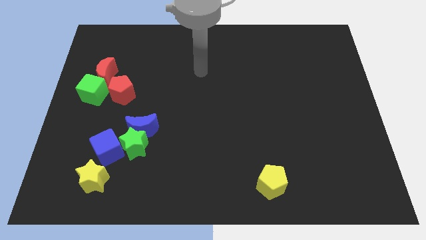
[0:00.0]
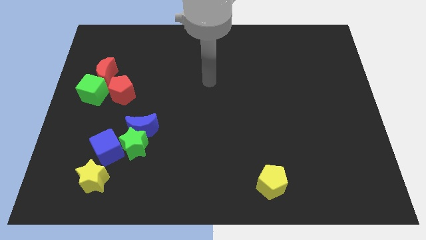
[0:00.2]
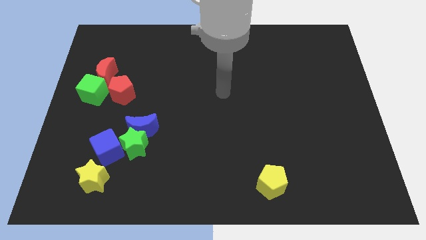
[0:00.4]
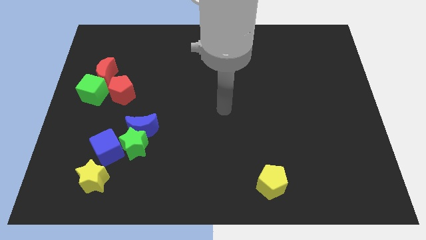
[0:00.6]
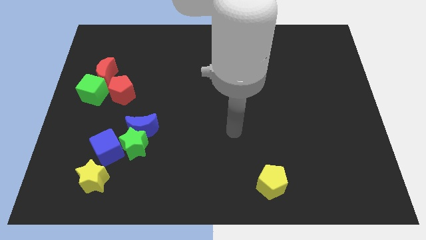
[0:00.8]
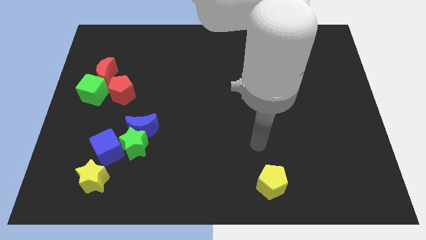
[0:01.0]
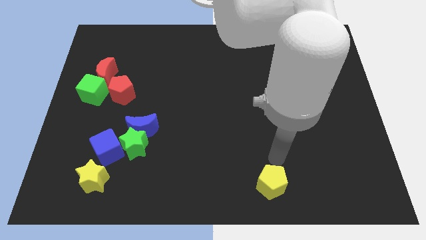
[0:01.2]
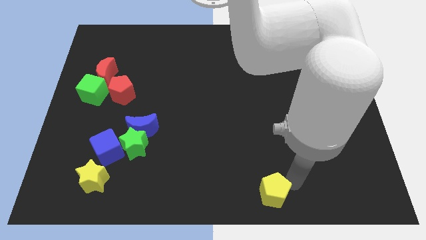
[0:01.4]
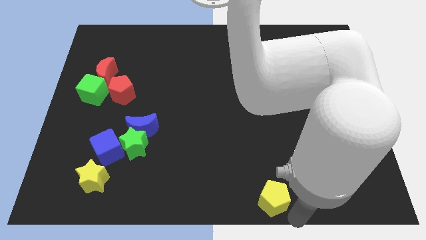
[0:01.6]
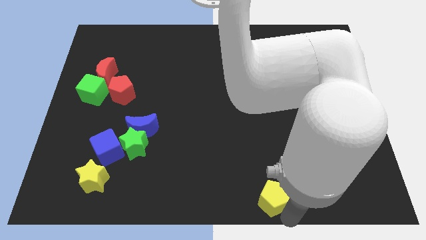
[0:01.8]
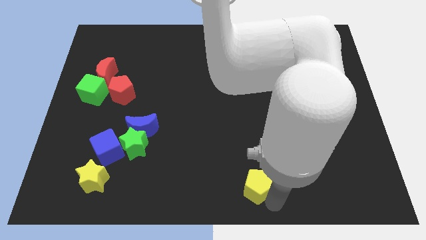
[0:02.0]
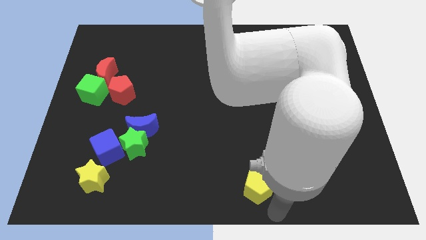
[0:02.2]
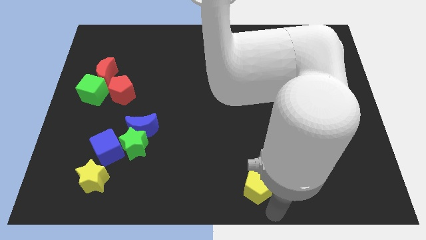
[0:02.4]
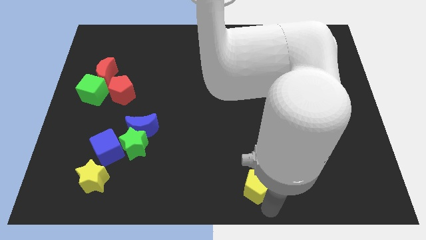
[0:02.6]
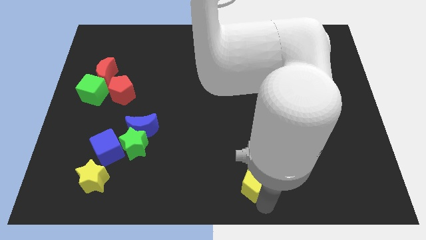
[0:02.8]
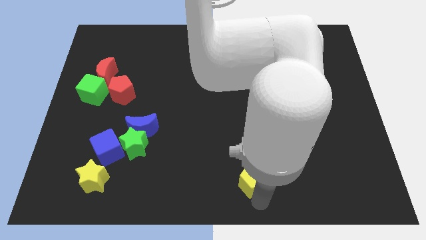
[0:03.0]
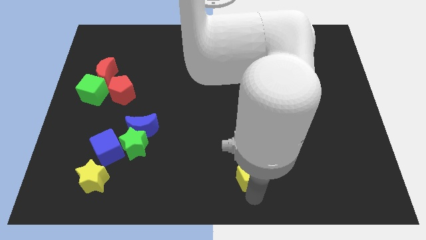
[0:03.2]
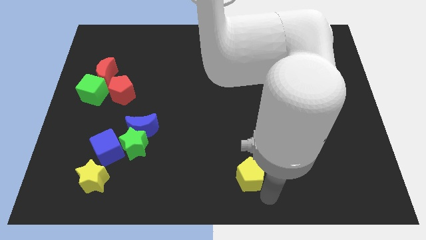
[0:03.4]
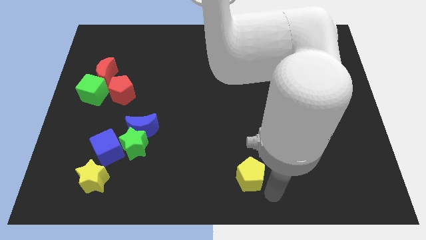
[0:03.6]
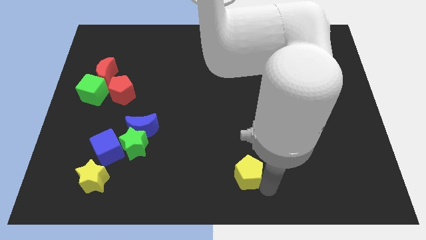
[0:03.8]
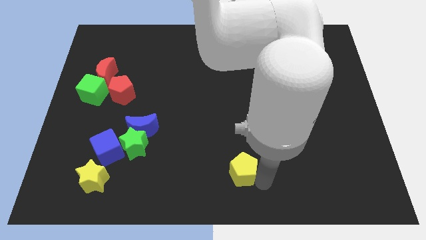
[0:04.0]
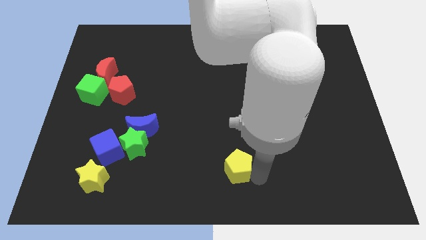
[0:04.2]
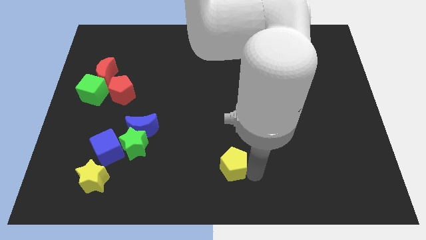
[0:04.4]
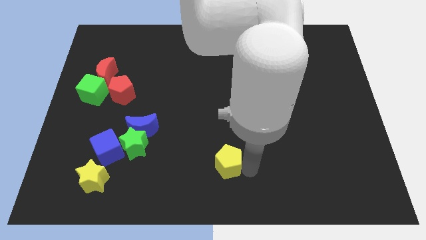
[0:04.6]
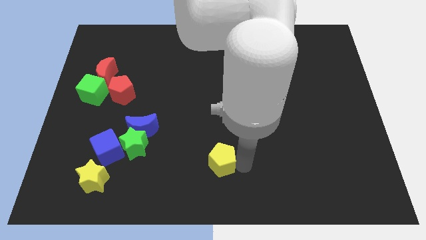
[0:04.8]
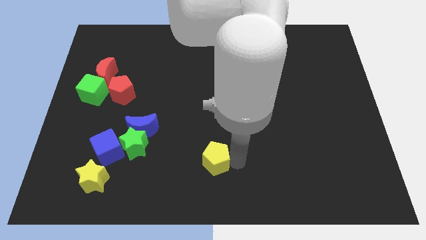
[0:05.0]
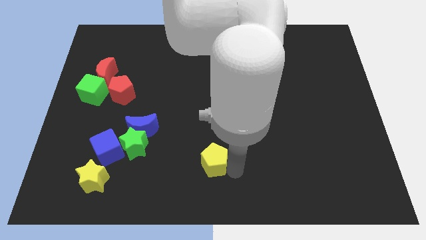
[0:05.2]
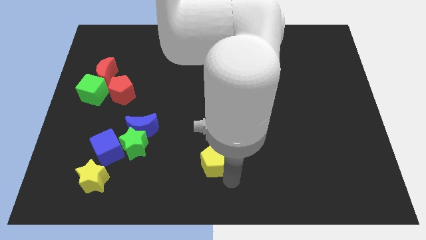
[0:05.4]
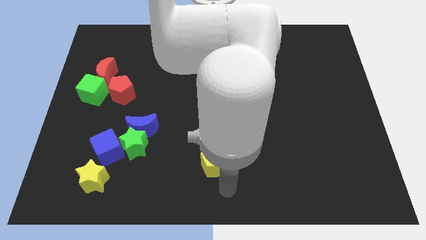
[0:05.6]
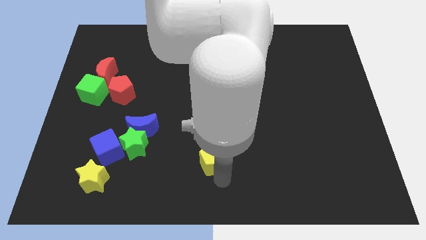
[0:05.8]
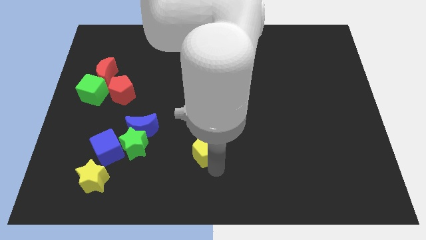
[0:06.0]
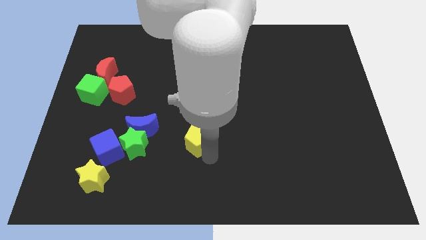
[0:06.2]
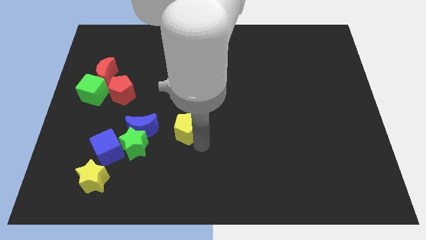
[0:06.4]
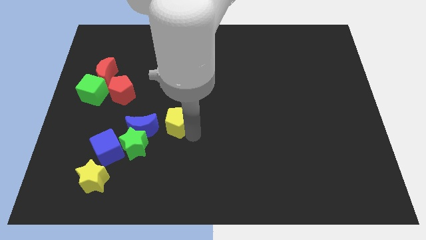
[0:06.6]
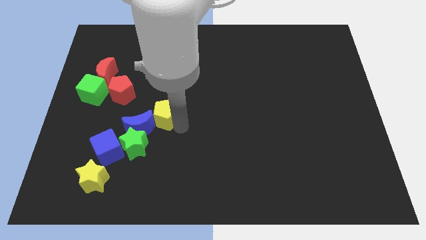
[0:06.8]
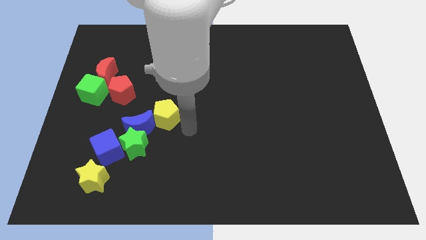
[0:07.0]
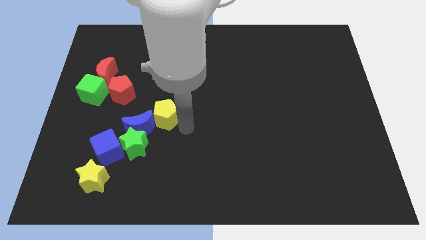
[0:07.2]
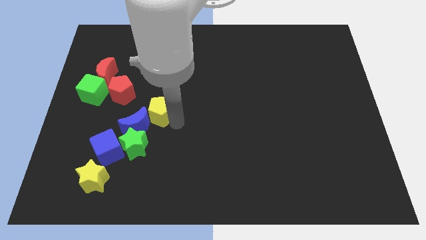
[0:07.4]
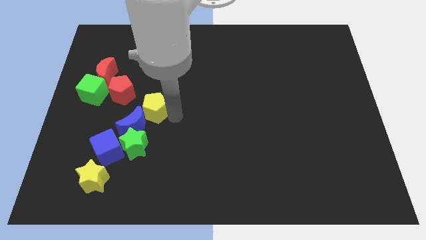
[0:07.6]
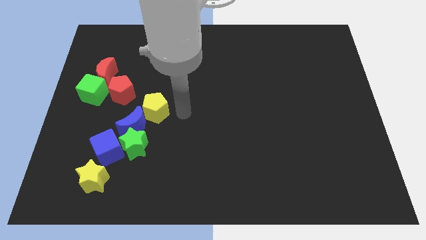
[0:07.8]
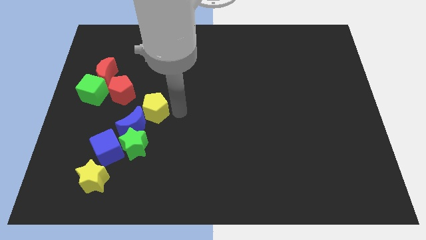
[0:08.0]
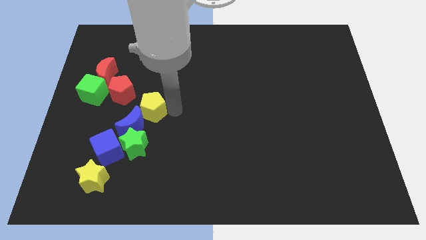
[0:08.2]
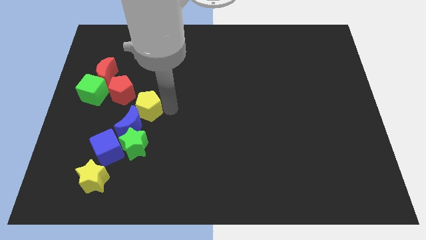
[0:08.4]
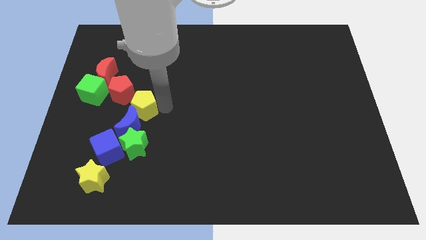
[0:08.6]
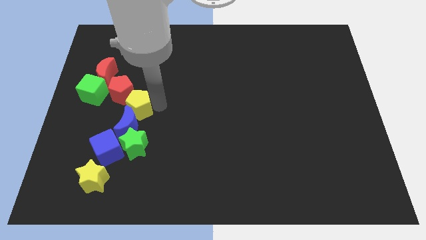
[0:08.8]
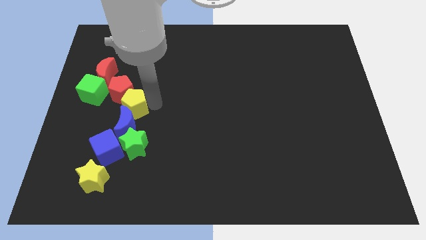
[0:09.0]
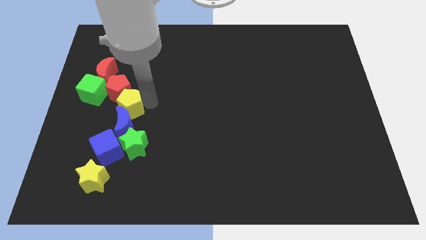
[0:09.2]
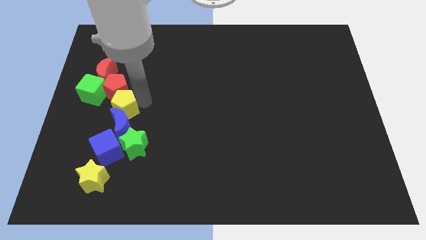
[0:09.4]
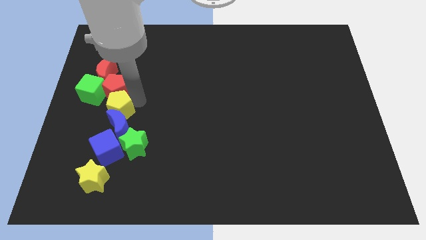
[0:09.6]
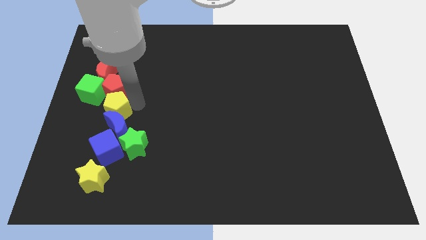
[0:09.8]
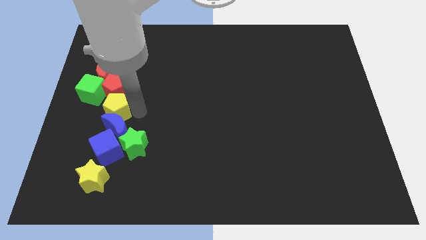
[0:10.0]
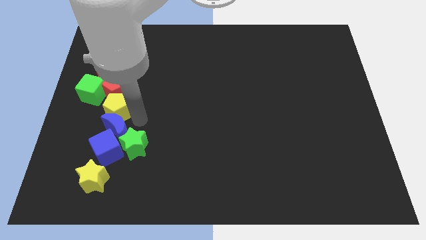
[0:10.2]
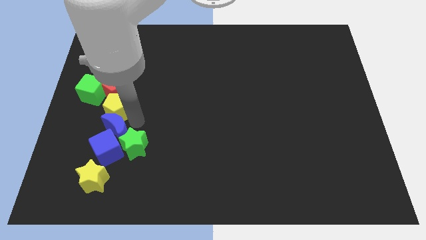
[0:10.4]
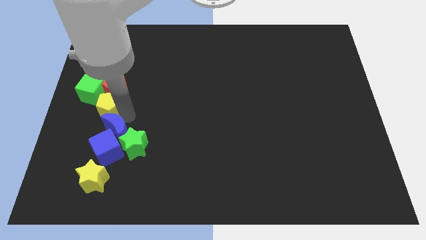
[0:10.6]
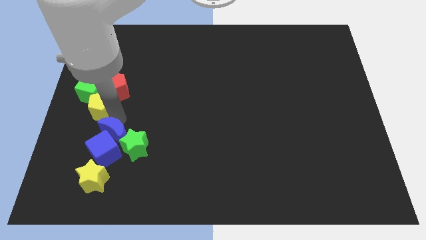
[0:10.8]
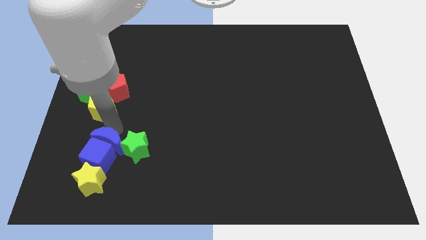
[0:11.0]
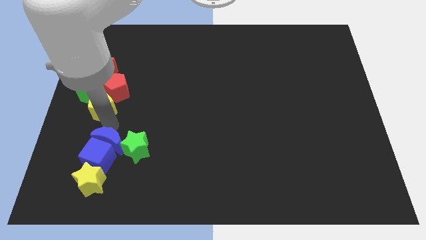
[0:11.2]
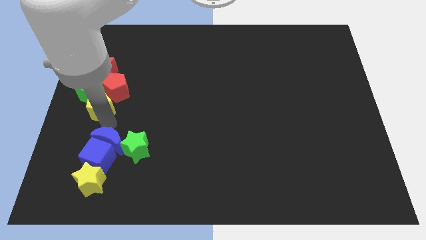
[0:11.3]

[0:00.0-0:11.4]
slide the yellow pentagon towards the green cube

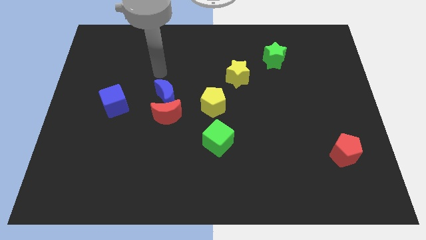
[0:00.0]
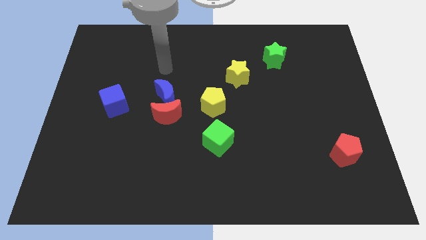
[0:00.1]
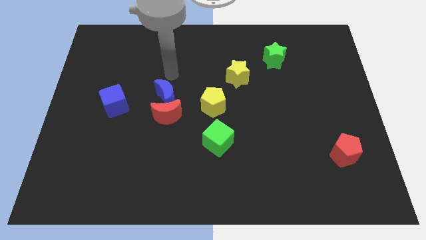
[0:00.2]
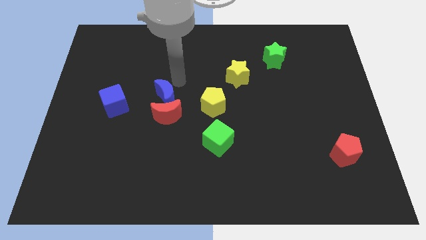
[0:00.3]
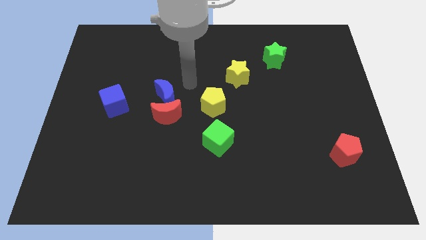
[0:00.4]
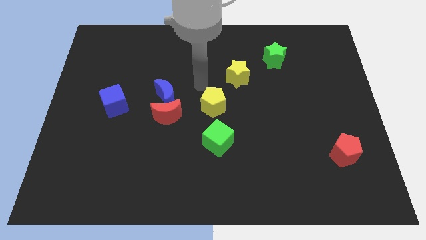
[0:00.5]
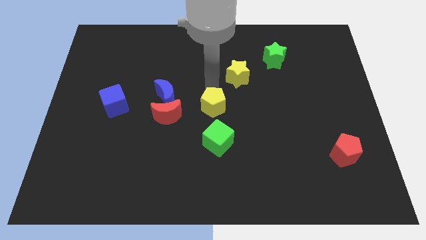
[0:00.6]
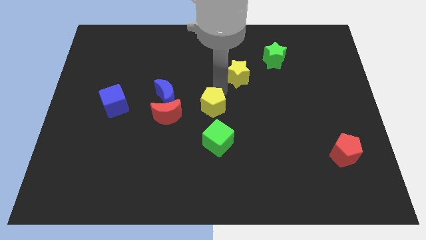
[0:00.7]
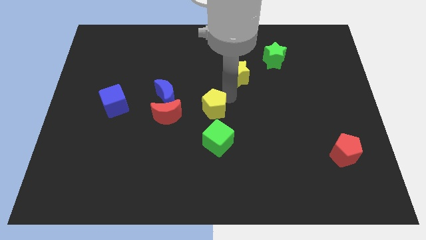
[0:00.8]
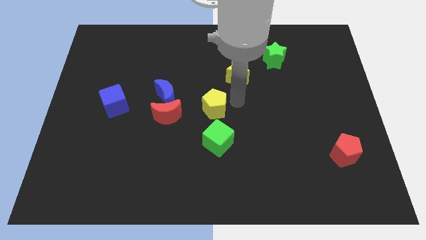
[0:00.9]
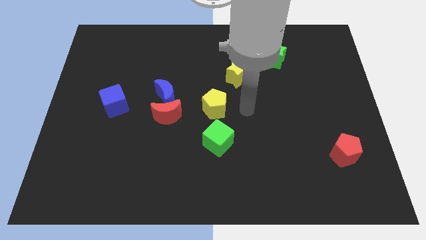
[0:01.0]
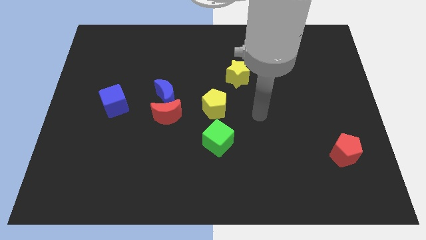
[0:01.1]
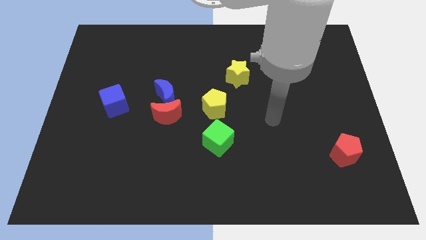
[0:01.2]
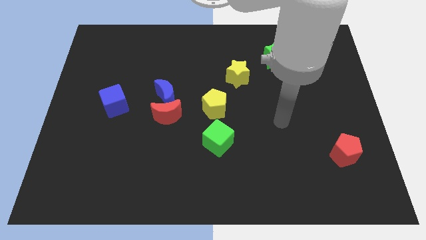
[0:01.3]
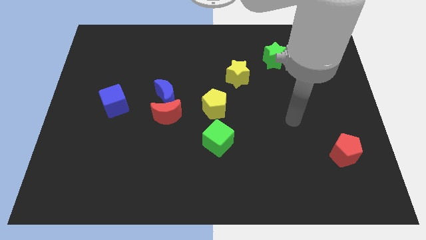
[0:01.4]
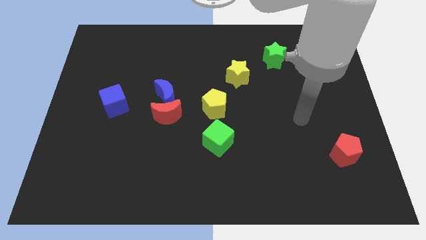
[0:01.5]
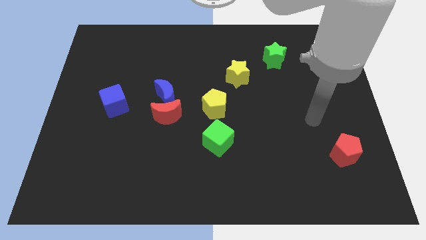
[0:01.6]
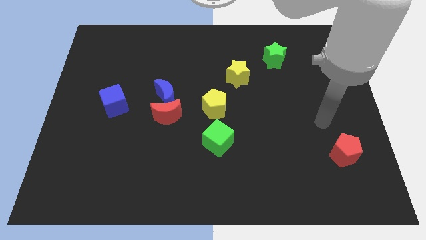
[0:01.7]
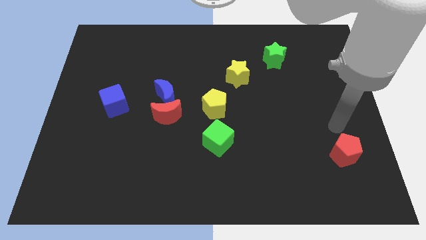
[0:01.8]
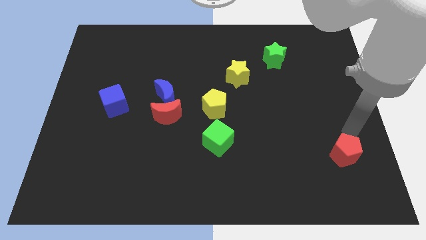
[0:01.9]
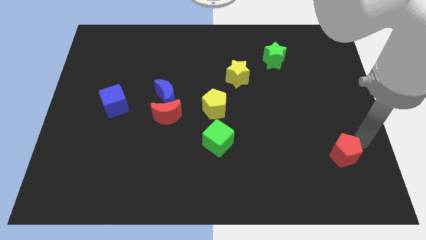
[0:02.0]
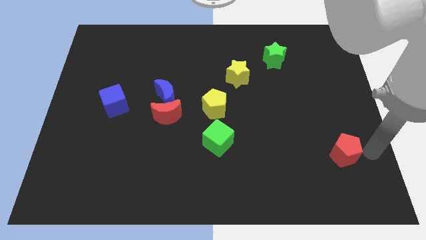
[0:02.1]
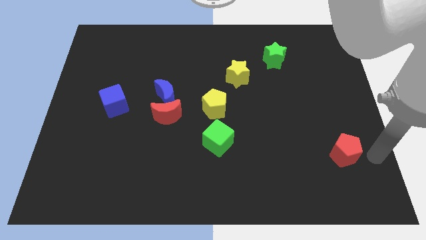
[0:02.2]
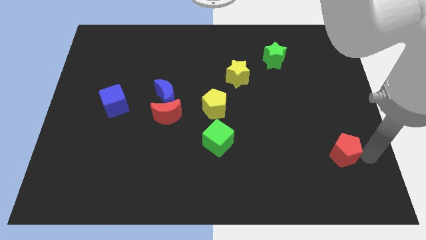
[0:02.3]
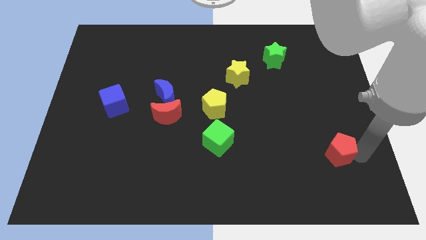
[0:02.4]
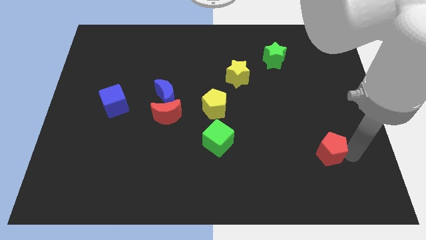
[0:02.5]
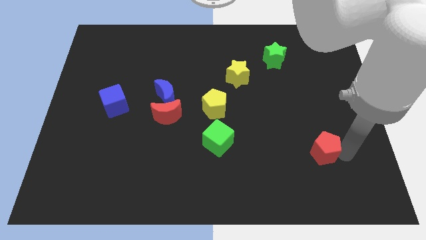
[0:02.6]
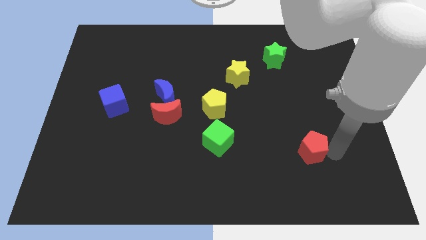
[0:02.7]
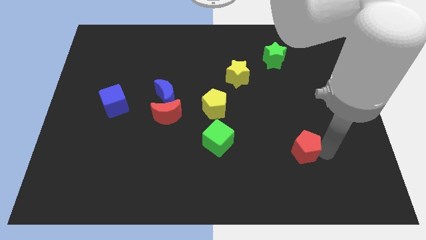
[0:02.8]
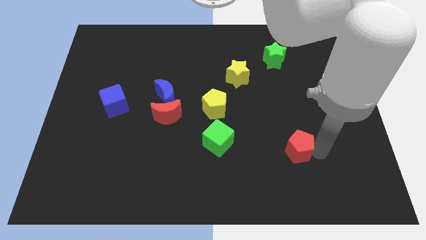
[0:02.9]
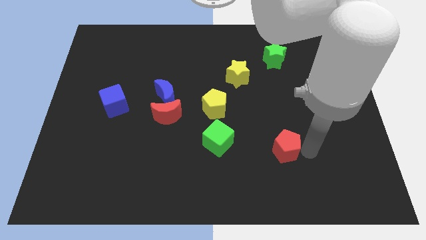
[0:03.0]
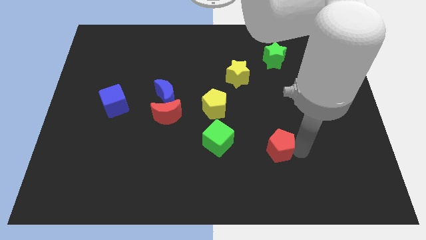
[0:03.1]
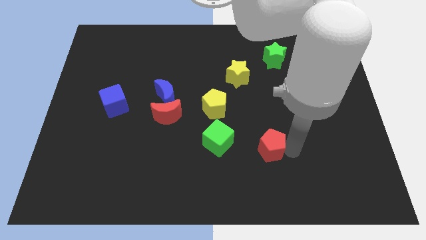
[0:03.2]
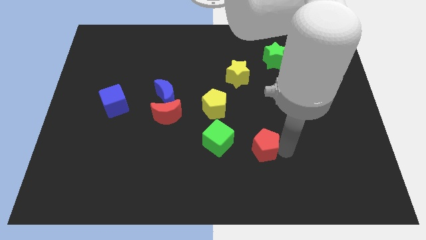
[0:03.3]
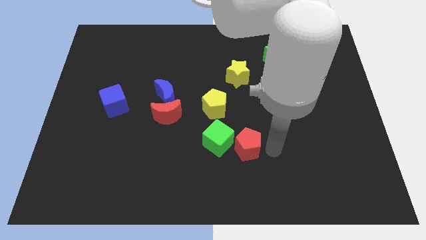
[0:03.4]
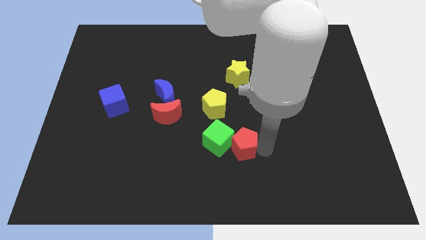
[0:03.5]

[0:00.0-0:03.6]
move the red pentagon to the green cube
